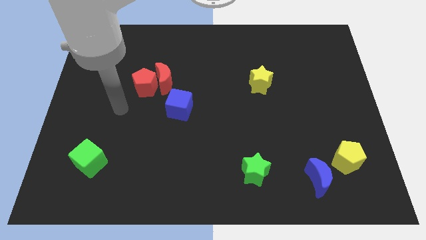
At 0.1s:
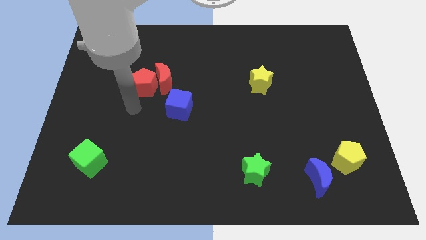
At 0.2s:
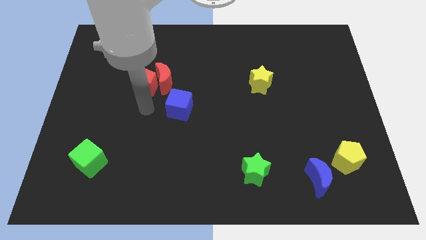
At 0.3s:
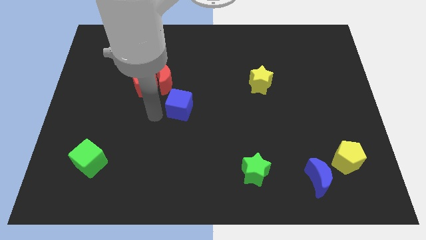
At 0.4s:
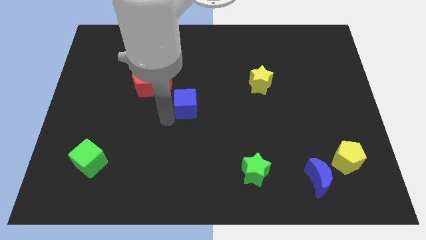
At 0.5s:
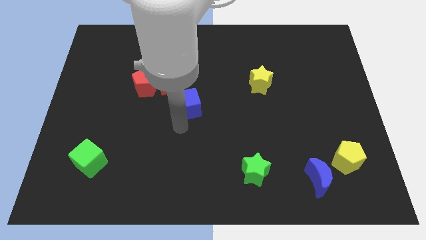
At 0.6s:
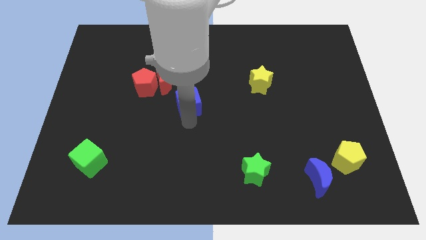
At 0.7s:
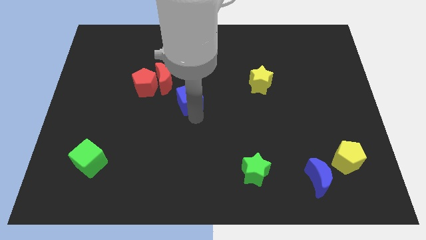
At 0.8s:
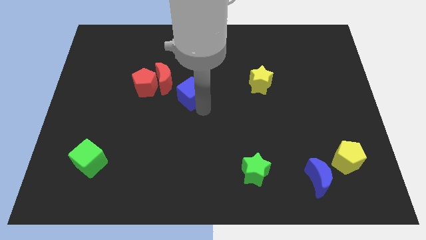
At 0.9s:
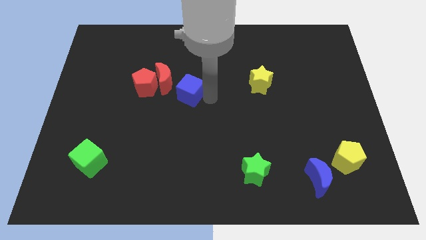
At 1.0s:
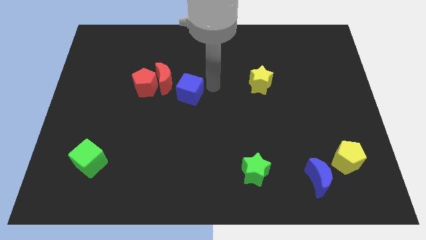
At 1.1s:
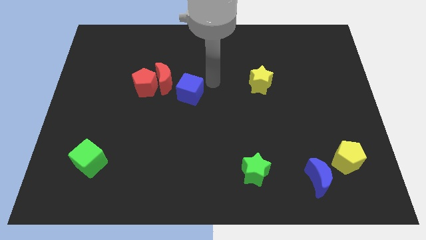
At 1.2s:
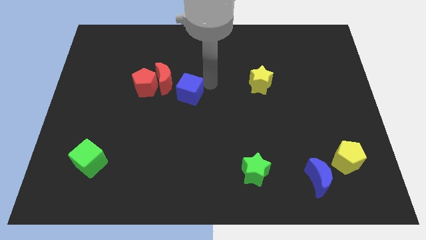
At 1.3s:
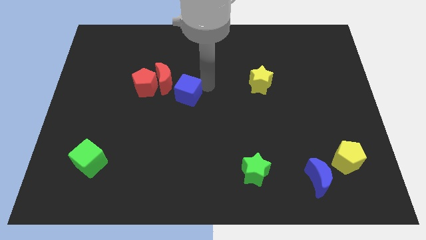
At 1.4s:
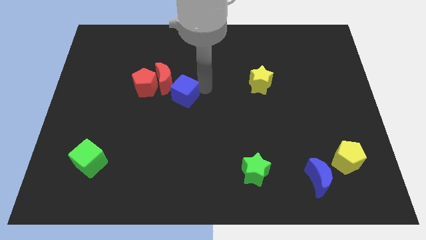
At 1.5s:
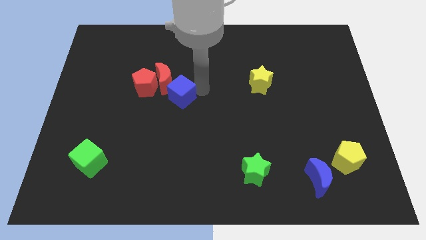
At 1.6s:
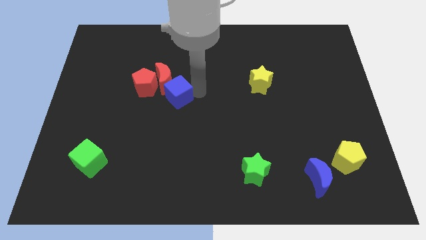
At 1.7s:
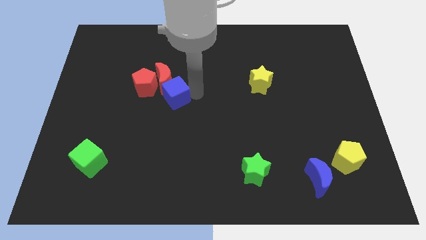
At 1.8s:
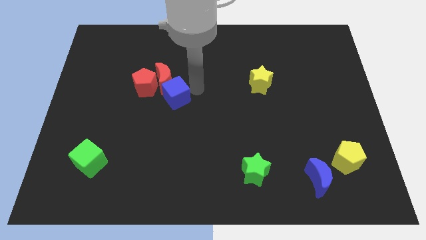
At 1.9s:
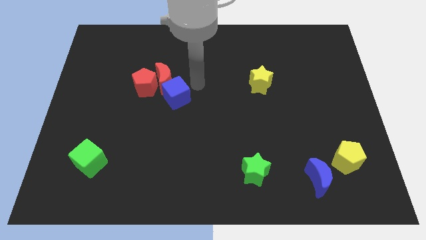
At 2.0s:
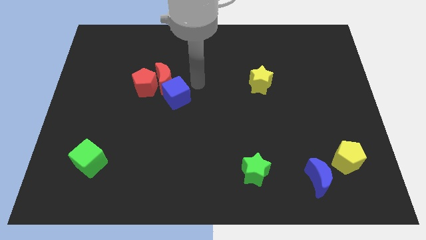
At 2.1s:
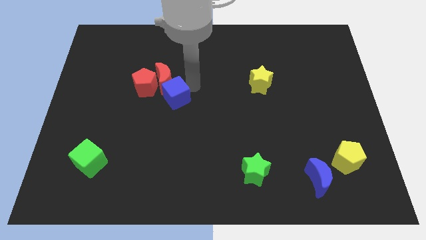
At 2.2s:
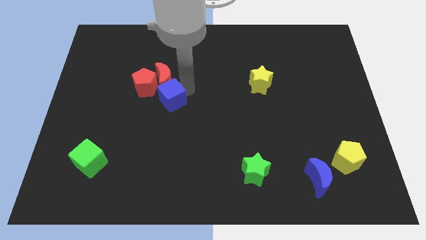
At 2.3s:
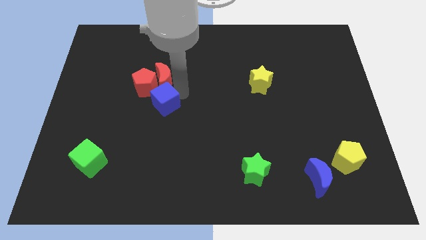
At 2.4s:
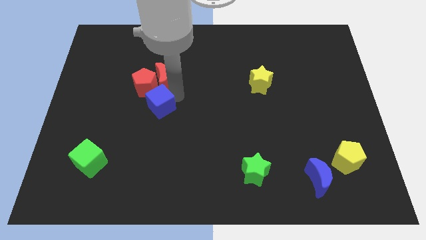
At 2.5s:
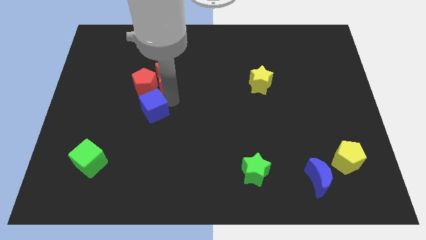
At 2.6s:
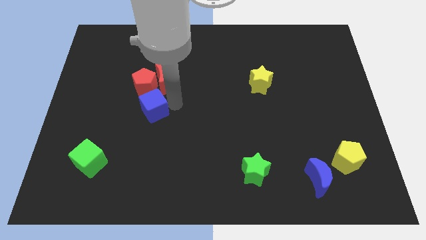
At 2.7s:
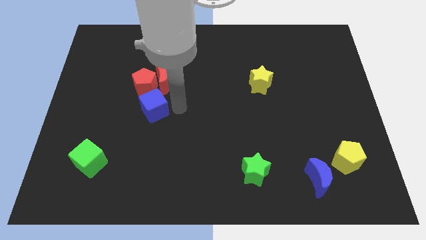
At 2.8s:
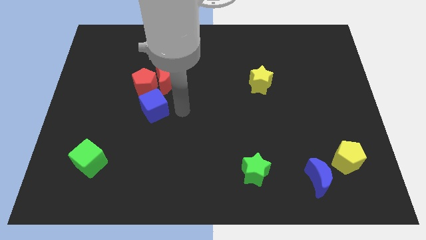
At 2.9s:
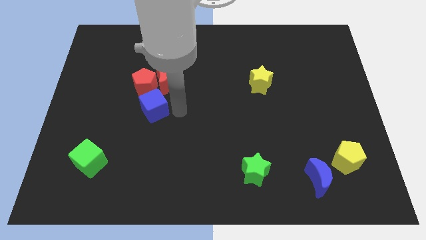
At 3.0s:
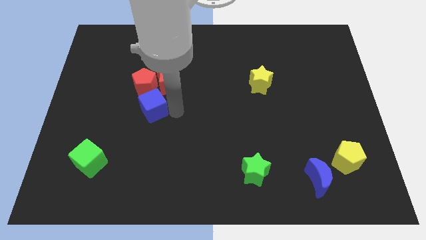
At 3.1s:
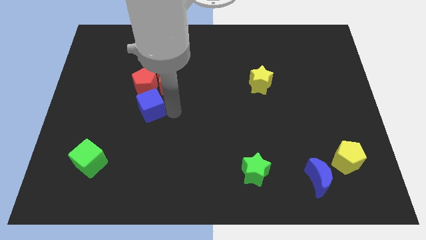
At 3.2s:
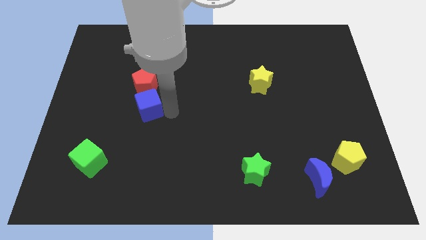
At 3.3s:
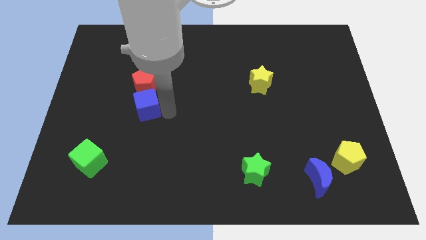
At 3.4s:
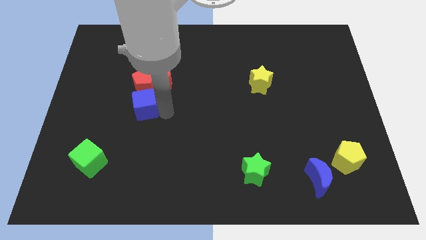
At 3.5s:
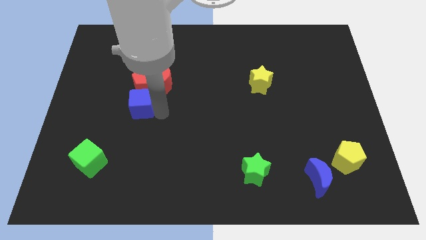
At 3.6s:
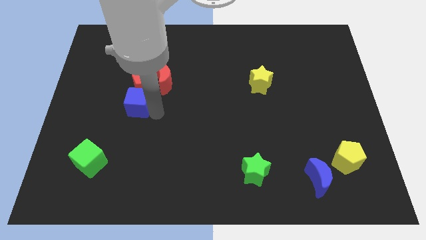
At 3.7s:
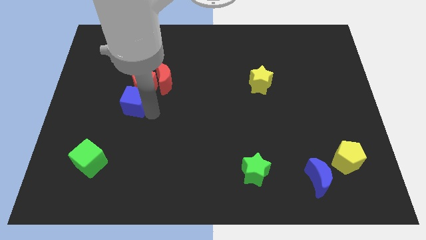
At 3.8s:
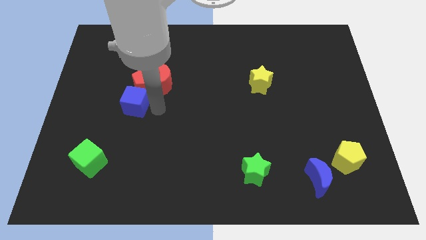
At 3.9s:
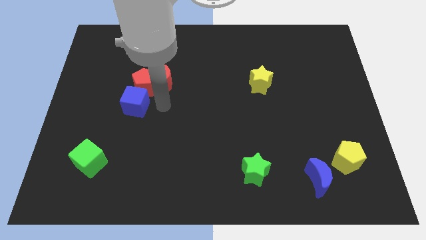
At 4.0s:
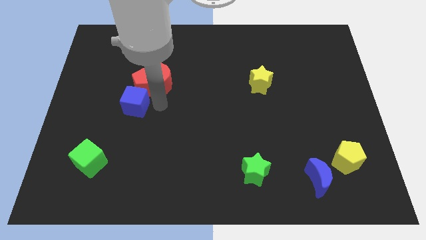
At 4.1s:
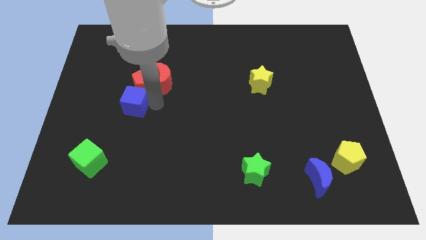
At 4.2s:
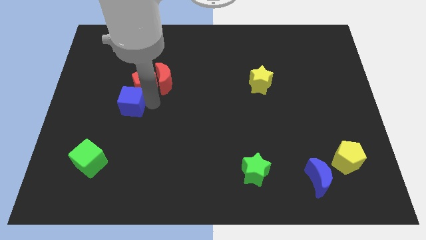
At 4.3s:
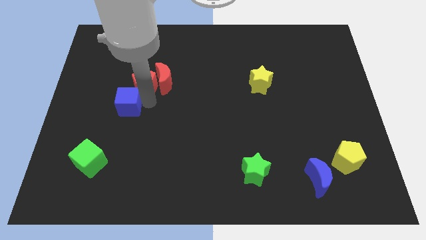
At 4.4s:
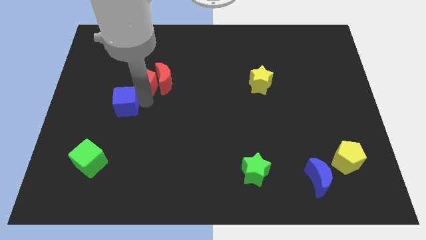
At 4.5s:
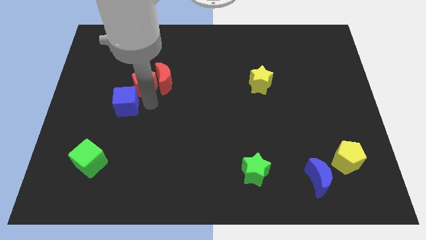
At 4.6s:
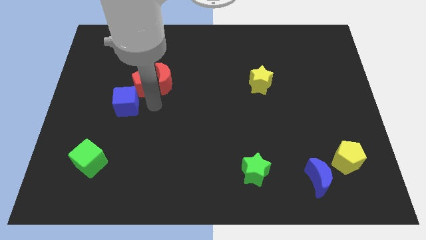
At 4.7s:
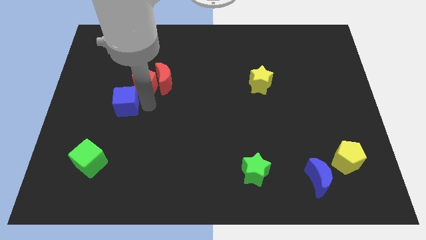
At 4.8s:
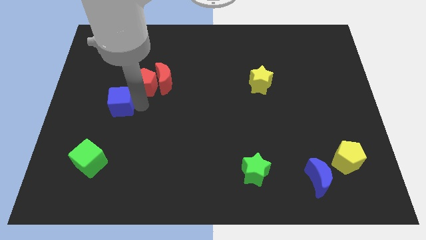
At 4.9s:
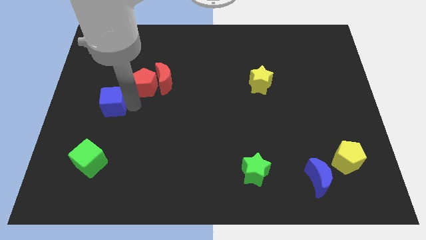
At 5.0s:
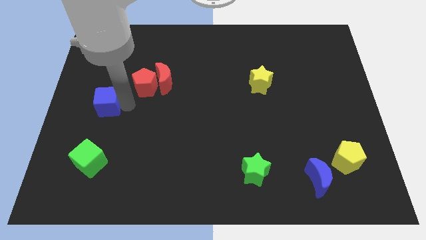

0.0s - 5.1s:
slide the blue cube to the left side

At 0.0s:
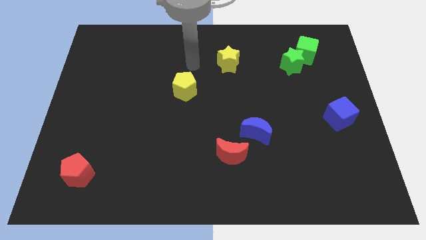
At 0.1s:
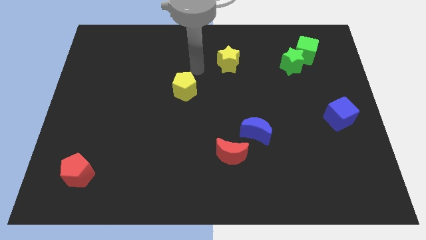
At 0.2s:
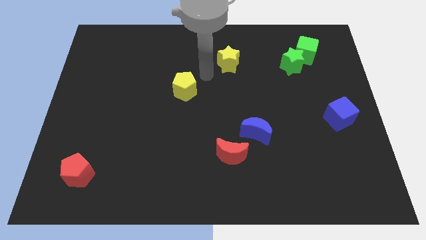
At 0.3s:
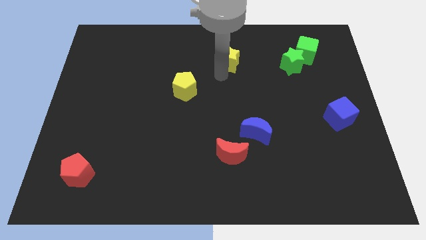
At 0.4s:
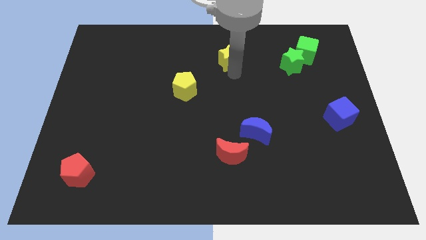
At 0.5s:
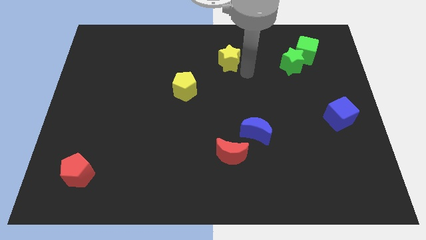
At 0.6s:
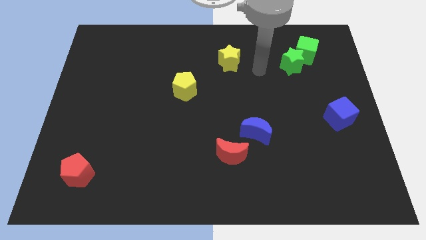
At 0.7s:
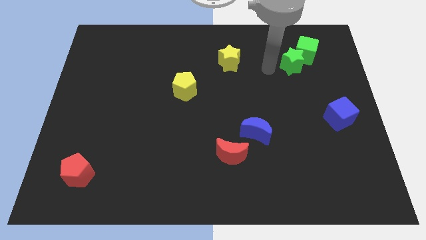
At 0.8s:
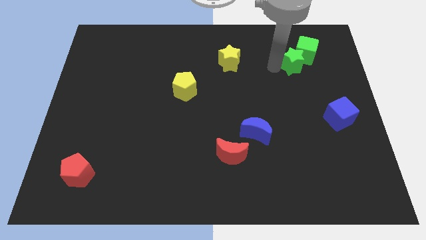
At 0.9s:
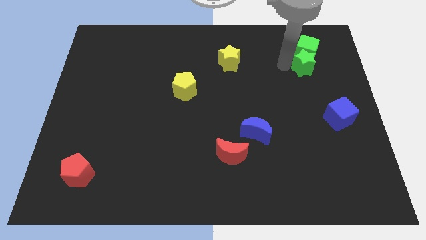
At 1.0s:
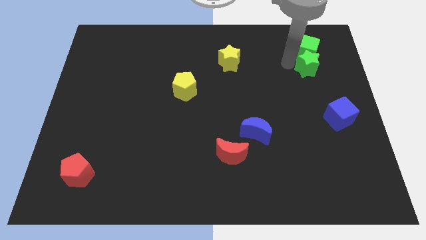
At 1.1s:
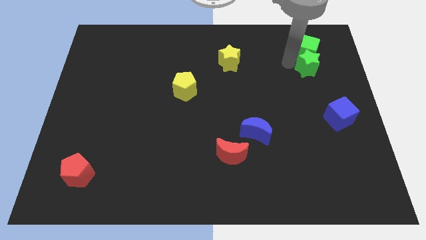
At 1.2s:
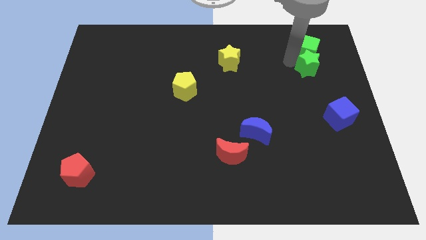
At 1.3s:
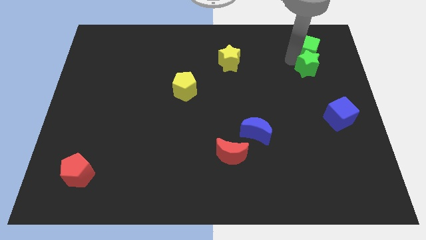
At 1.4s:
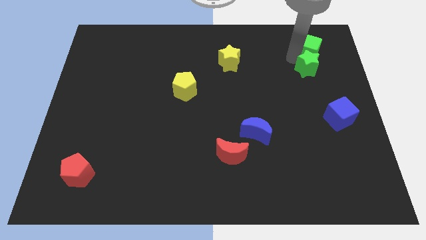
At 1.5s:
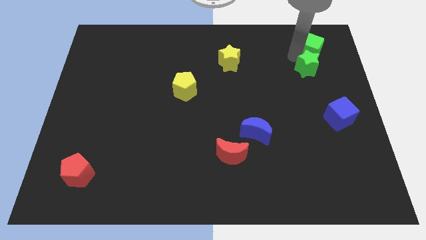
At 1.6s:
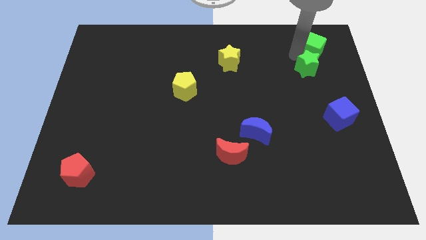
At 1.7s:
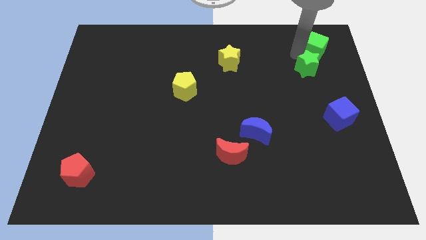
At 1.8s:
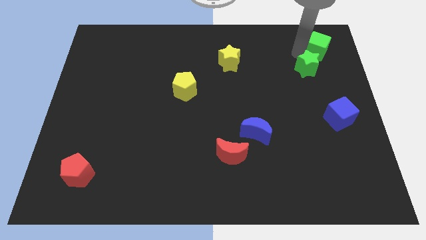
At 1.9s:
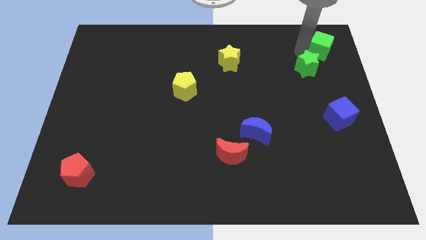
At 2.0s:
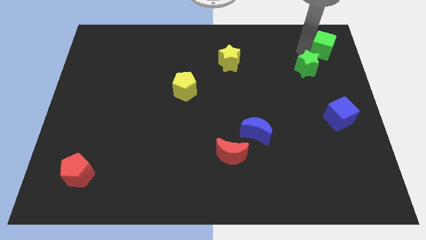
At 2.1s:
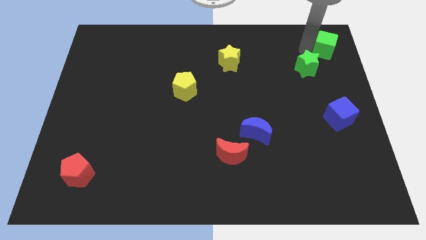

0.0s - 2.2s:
put the green cube to the top right of the board
